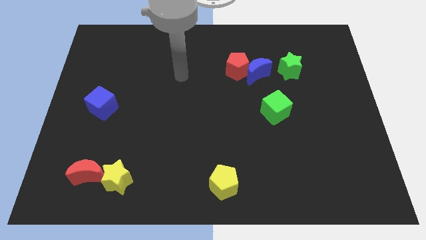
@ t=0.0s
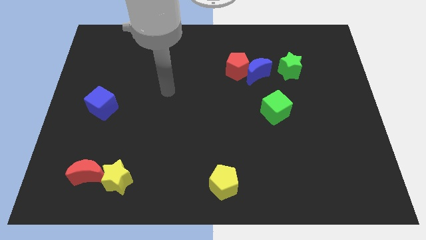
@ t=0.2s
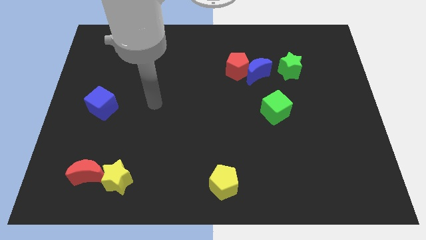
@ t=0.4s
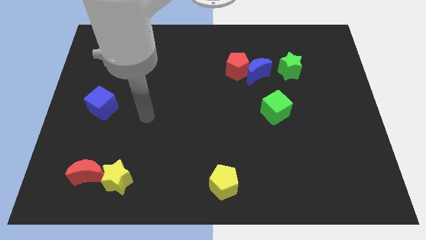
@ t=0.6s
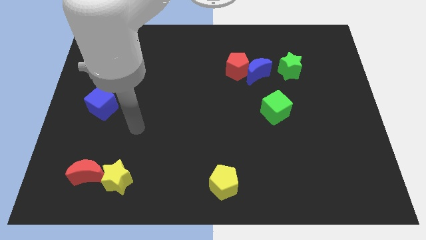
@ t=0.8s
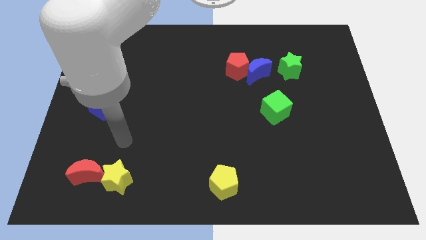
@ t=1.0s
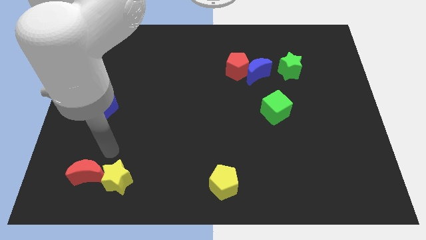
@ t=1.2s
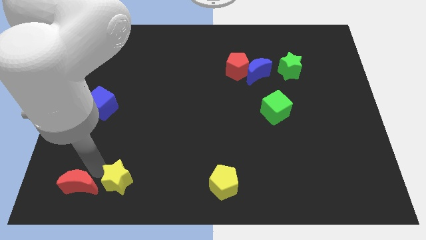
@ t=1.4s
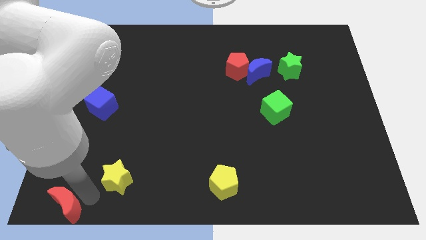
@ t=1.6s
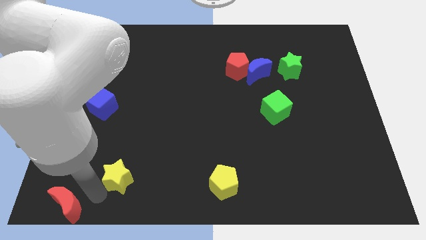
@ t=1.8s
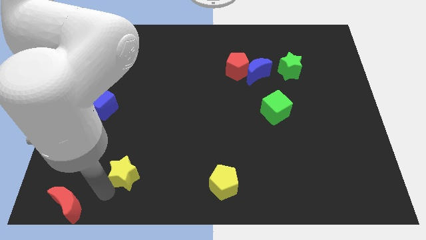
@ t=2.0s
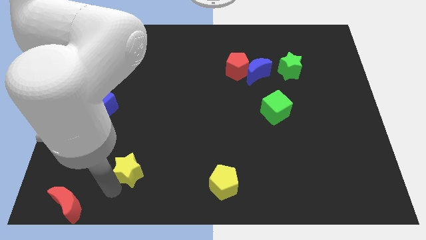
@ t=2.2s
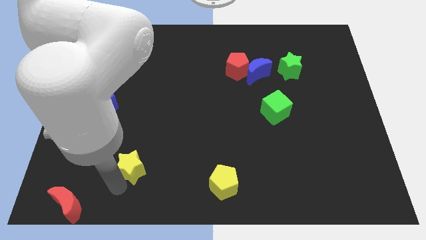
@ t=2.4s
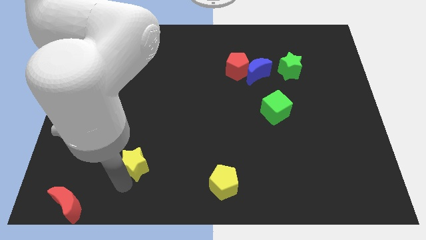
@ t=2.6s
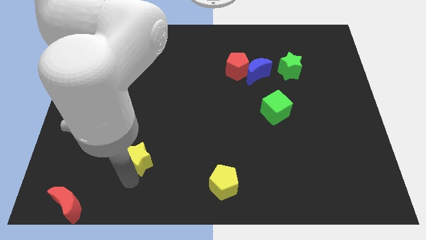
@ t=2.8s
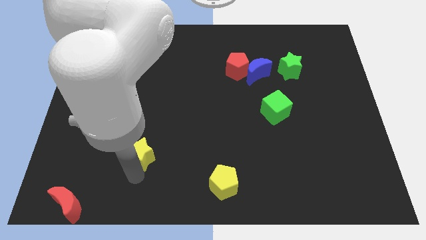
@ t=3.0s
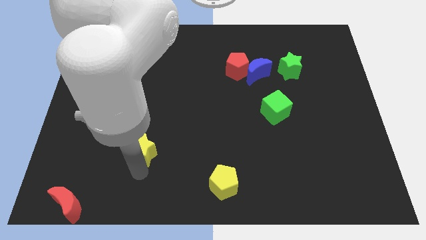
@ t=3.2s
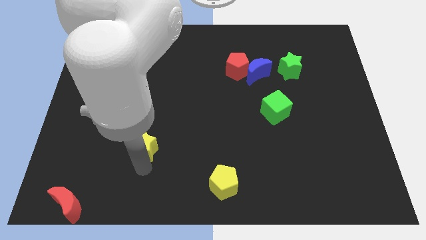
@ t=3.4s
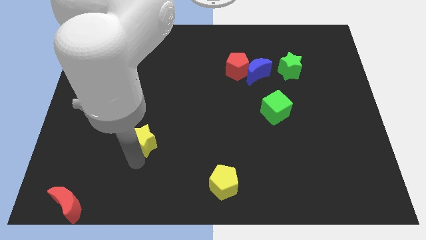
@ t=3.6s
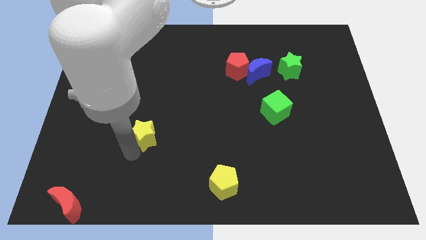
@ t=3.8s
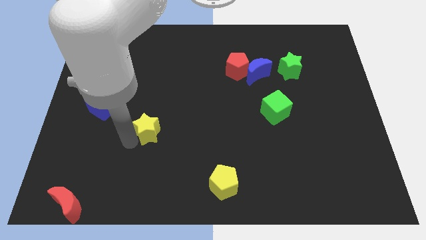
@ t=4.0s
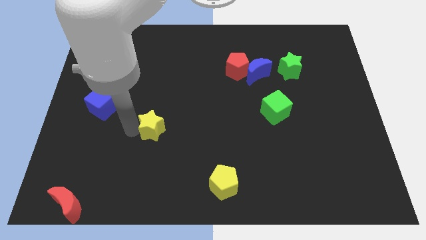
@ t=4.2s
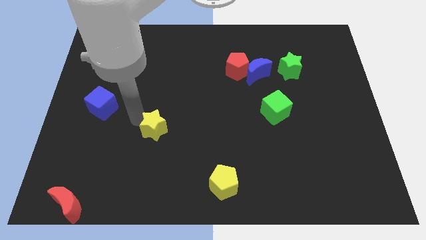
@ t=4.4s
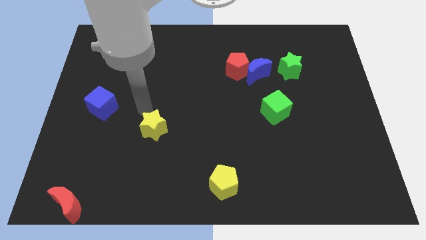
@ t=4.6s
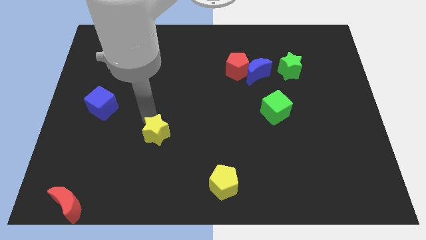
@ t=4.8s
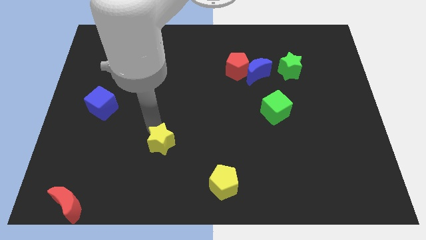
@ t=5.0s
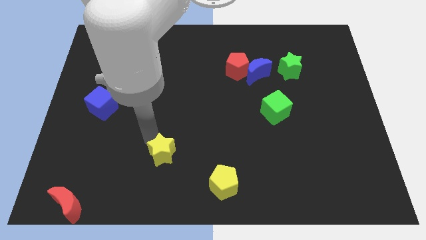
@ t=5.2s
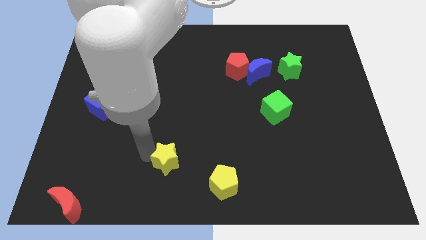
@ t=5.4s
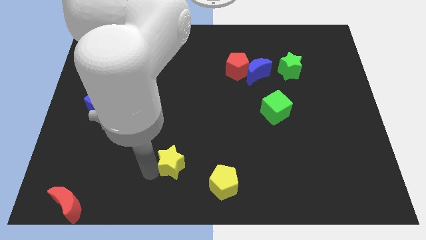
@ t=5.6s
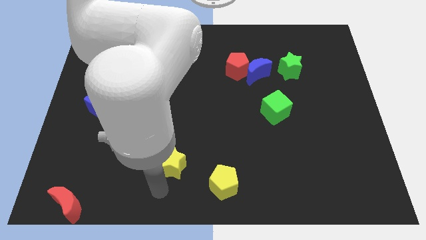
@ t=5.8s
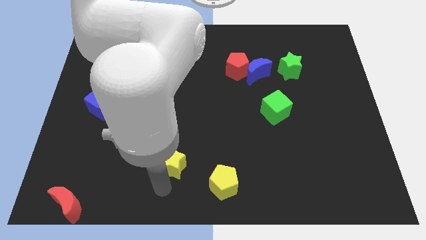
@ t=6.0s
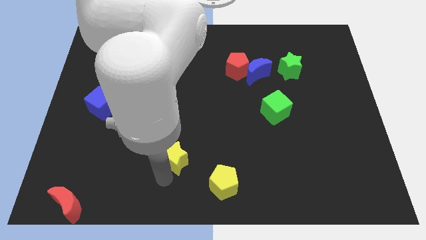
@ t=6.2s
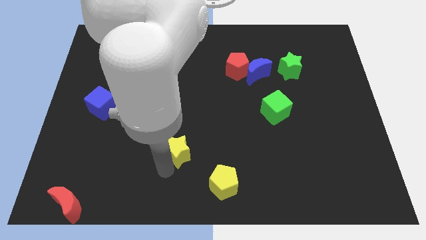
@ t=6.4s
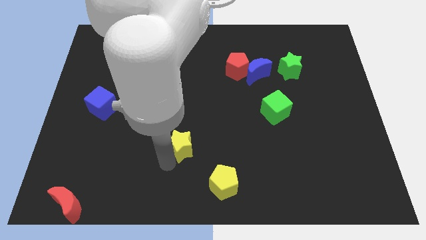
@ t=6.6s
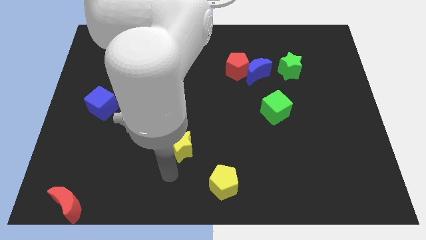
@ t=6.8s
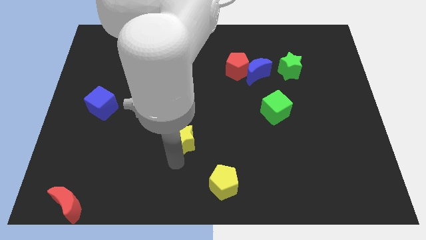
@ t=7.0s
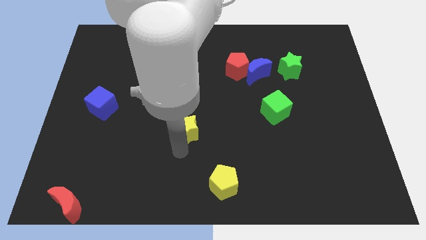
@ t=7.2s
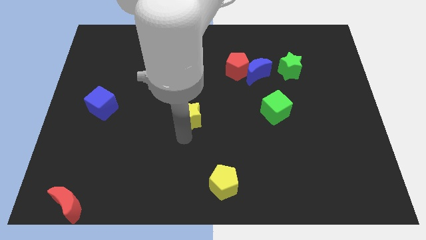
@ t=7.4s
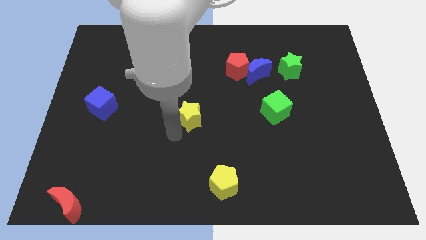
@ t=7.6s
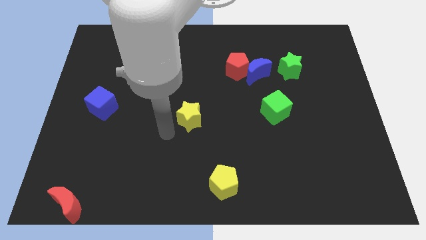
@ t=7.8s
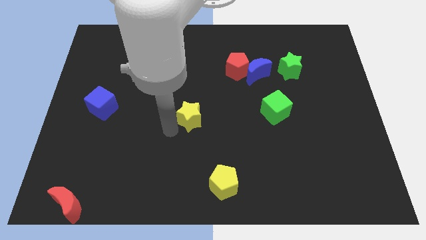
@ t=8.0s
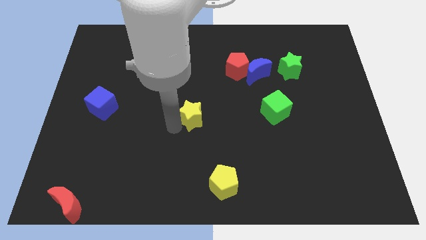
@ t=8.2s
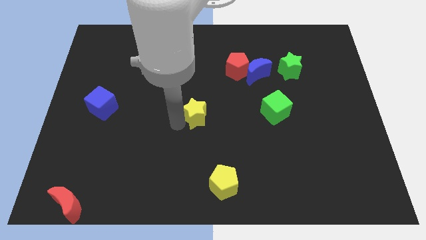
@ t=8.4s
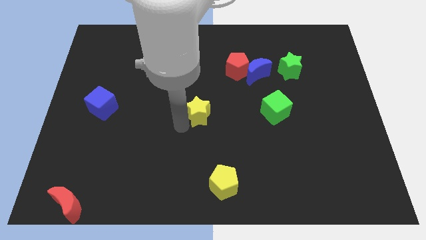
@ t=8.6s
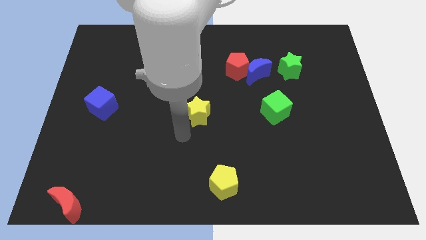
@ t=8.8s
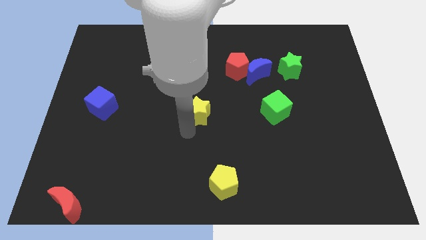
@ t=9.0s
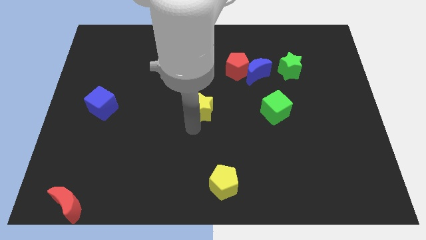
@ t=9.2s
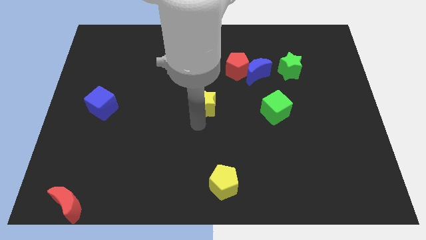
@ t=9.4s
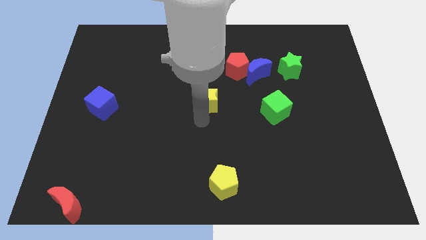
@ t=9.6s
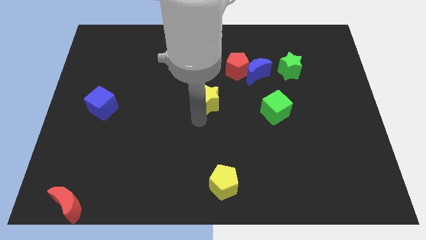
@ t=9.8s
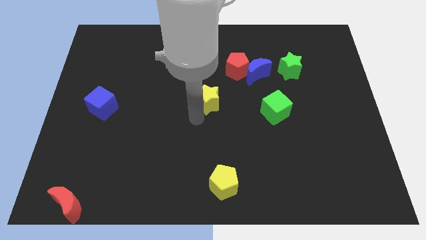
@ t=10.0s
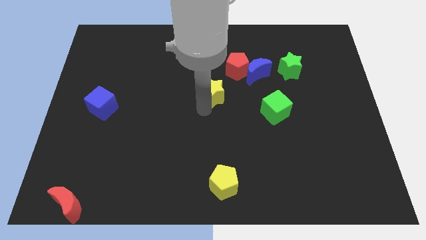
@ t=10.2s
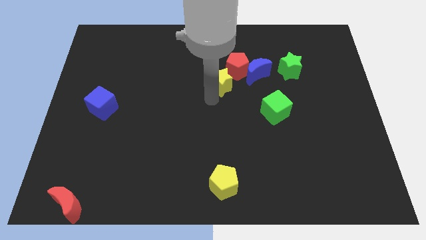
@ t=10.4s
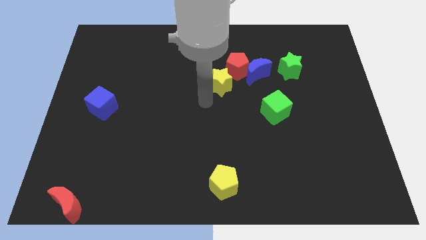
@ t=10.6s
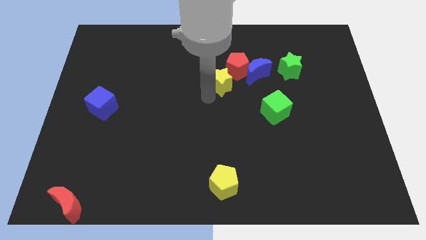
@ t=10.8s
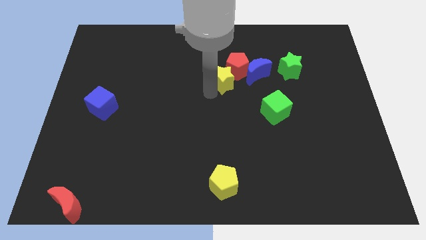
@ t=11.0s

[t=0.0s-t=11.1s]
push the yellow star towards the red pentagon

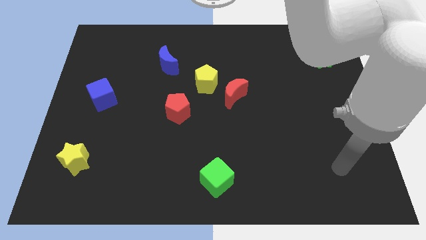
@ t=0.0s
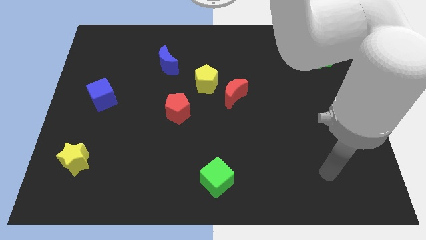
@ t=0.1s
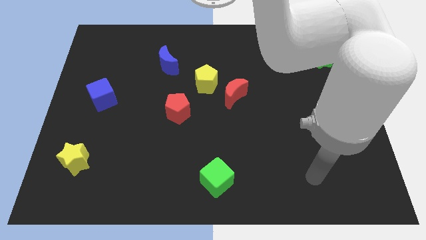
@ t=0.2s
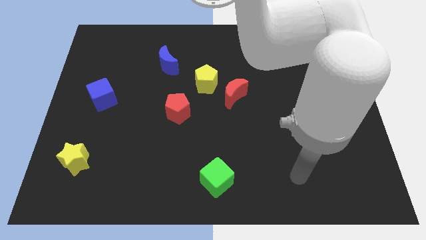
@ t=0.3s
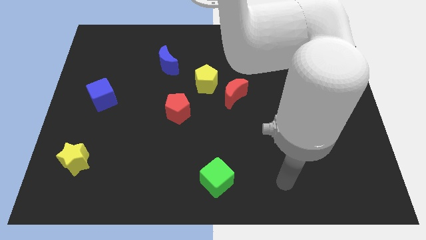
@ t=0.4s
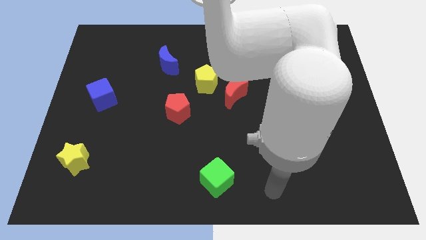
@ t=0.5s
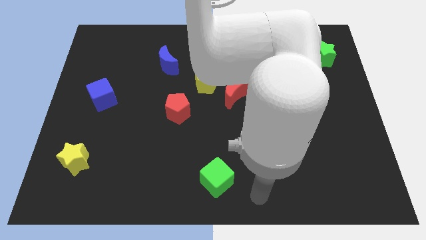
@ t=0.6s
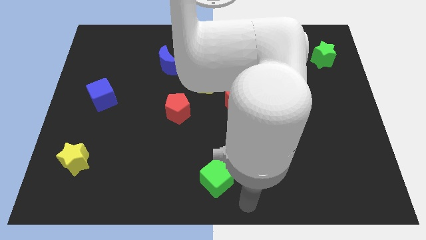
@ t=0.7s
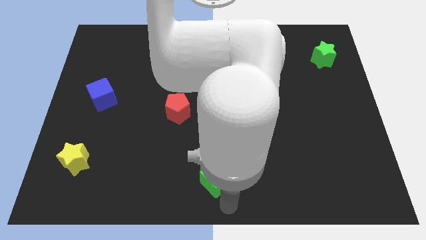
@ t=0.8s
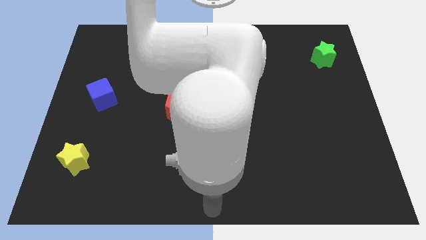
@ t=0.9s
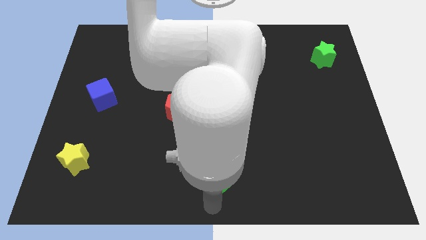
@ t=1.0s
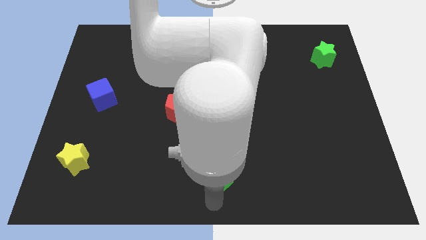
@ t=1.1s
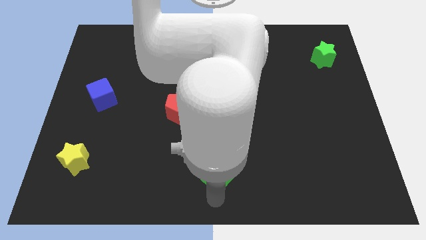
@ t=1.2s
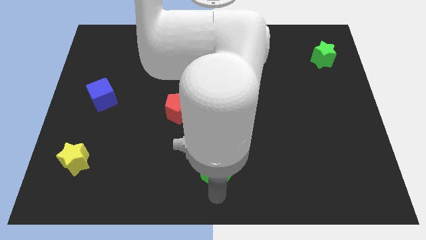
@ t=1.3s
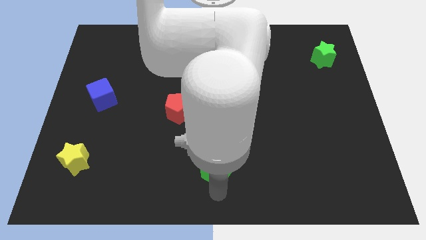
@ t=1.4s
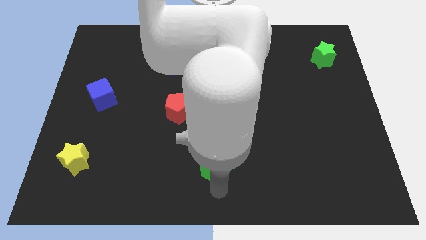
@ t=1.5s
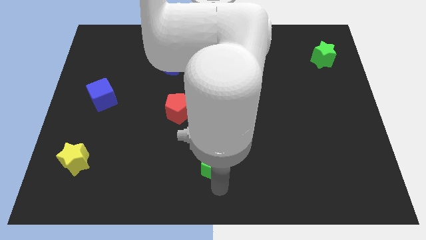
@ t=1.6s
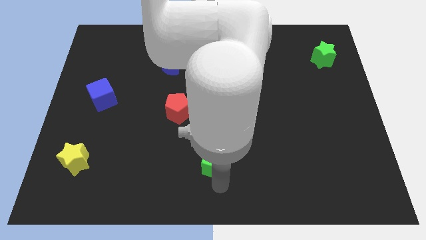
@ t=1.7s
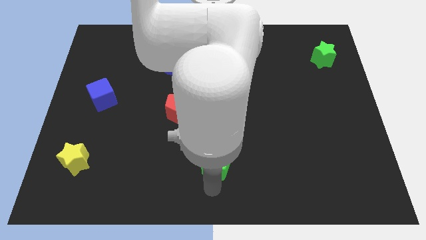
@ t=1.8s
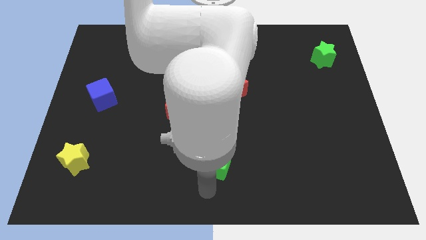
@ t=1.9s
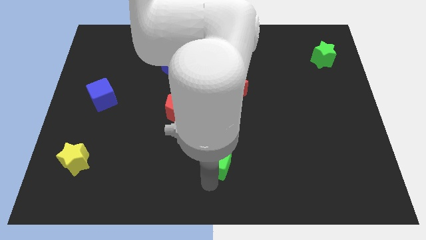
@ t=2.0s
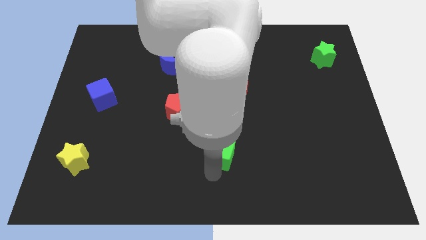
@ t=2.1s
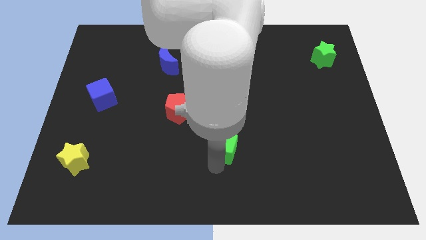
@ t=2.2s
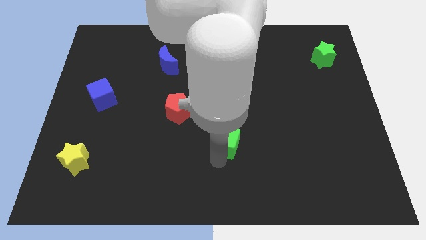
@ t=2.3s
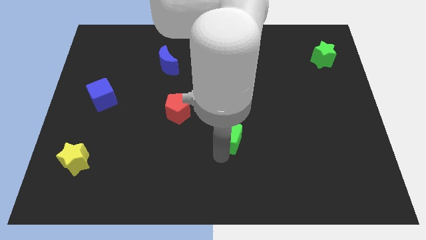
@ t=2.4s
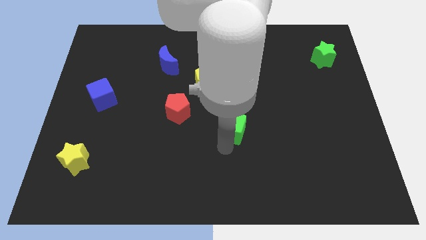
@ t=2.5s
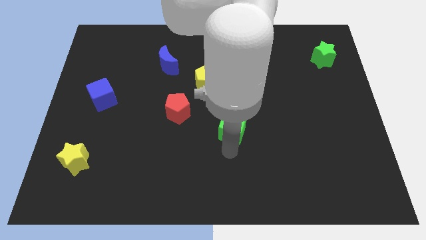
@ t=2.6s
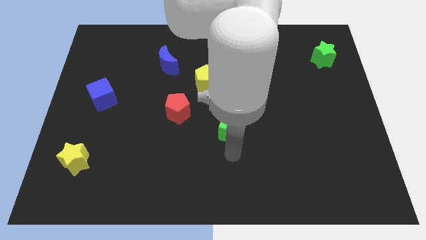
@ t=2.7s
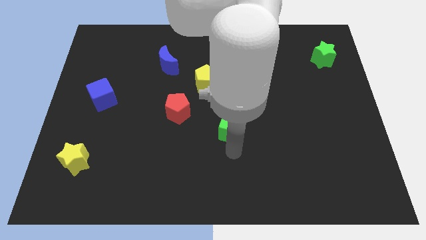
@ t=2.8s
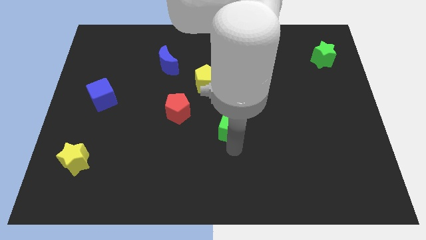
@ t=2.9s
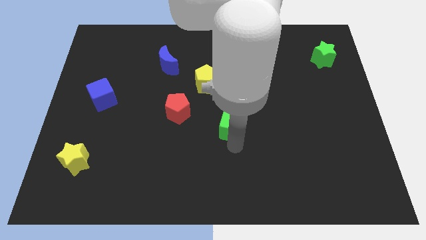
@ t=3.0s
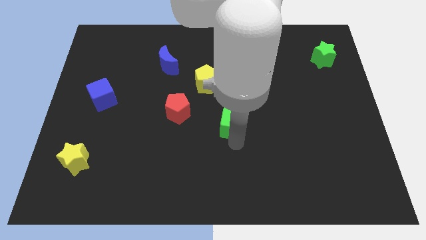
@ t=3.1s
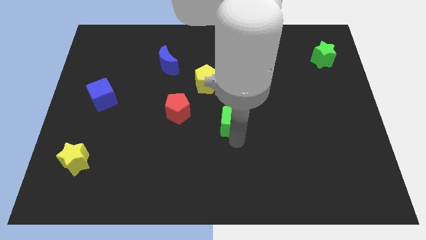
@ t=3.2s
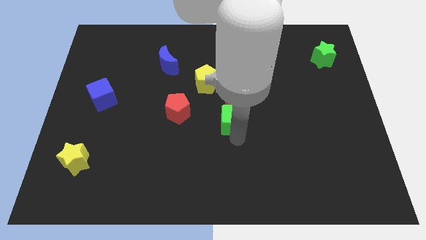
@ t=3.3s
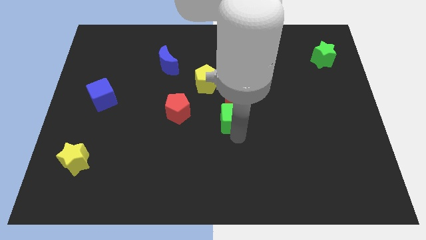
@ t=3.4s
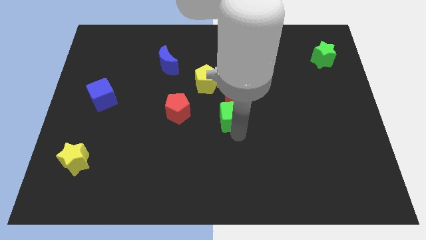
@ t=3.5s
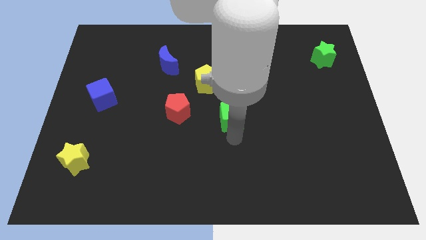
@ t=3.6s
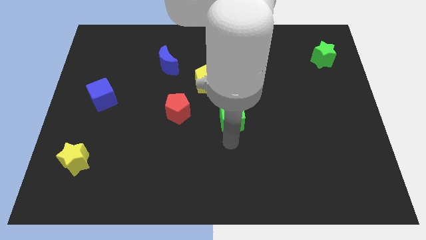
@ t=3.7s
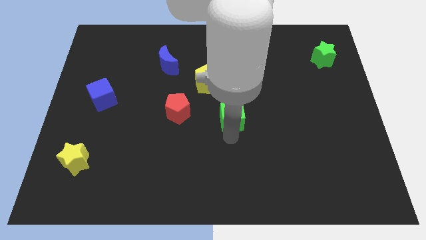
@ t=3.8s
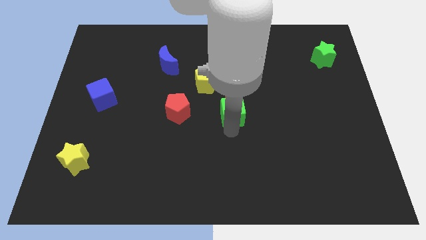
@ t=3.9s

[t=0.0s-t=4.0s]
push the green cube close to the red moon
